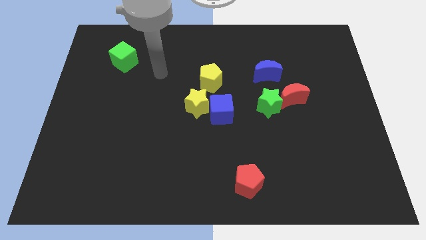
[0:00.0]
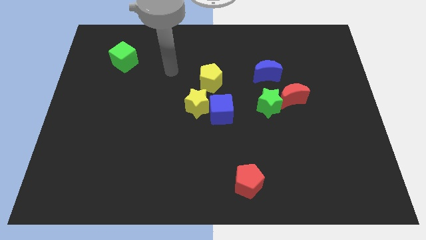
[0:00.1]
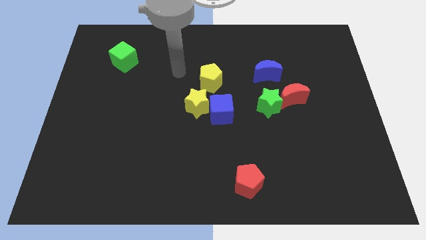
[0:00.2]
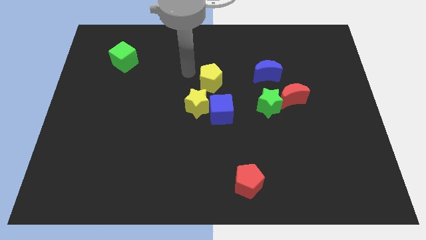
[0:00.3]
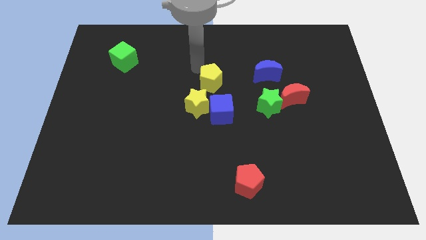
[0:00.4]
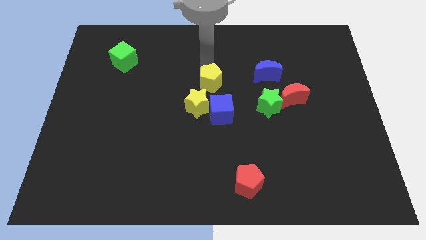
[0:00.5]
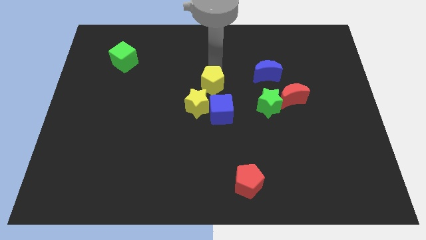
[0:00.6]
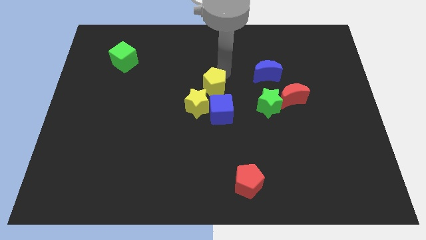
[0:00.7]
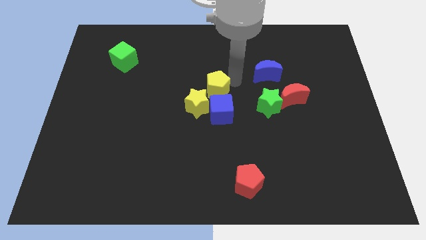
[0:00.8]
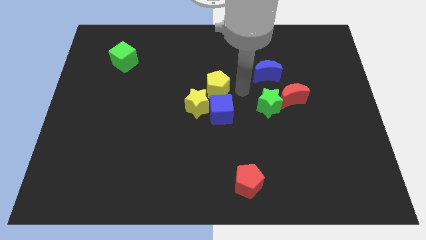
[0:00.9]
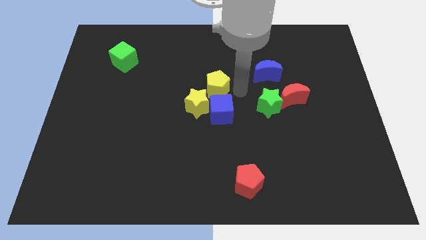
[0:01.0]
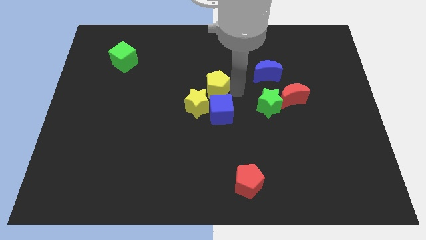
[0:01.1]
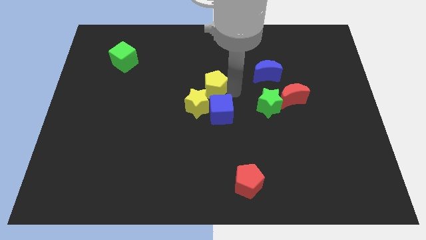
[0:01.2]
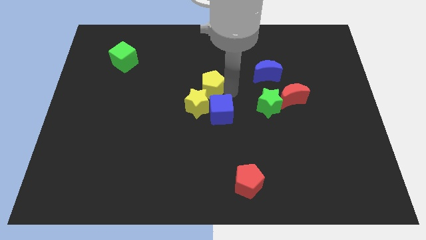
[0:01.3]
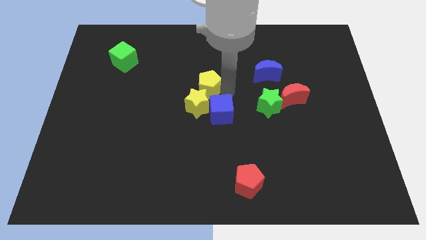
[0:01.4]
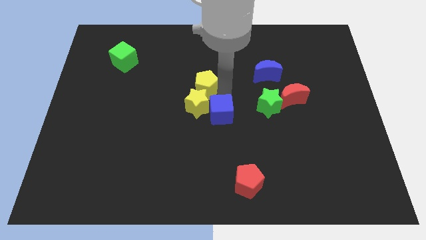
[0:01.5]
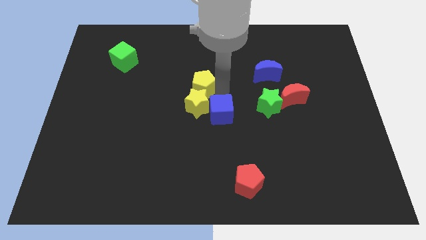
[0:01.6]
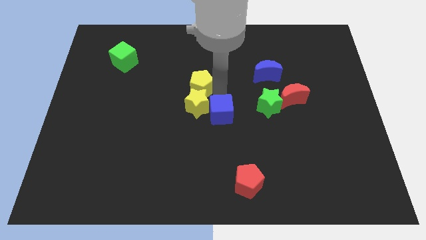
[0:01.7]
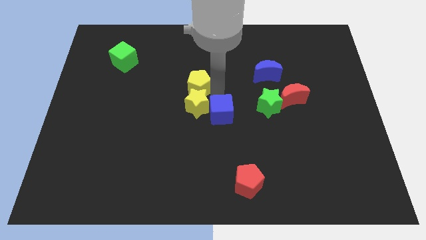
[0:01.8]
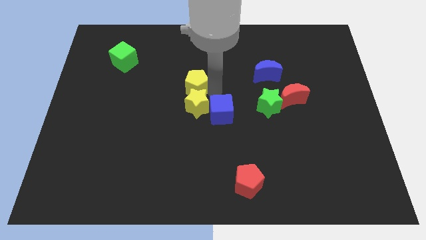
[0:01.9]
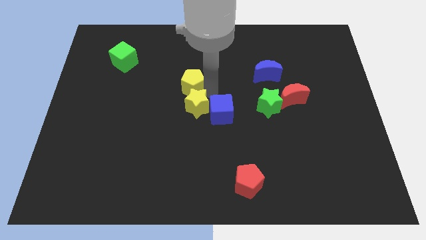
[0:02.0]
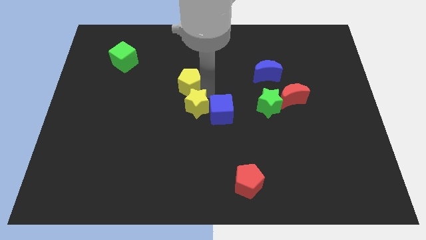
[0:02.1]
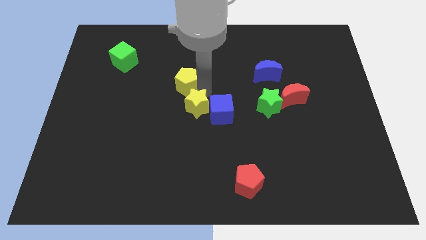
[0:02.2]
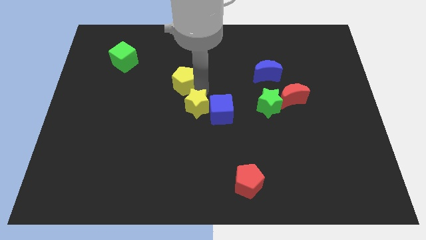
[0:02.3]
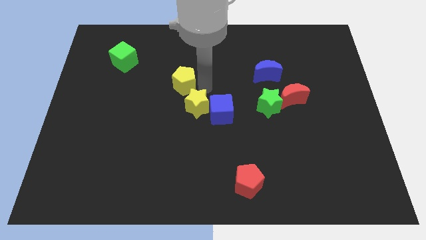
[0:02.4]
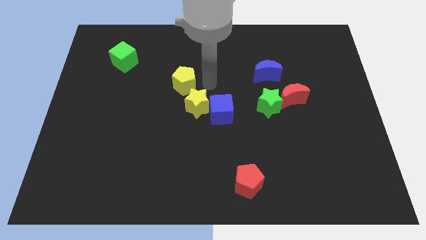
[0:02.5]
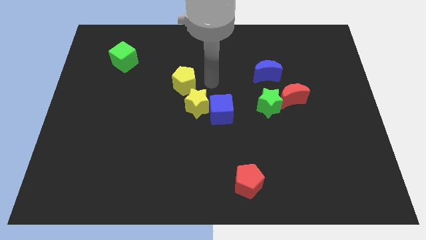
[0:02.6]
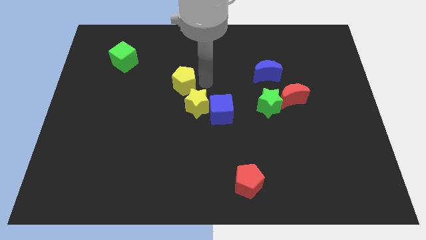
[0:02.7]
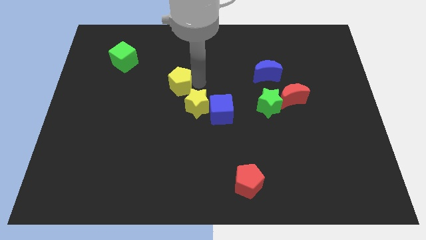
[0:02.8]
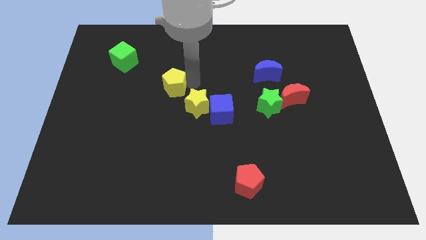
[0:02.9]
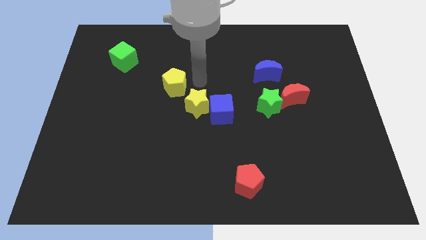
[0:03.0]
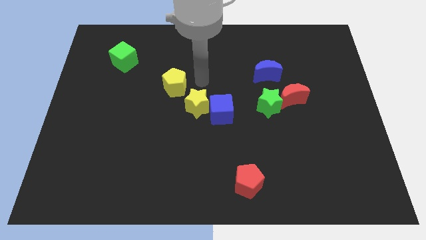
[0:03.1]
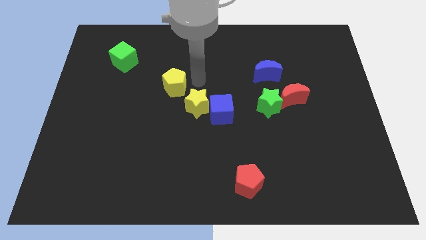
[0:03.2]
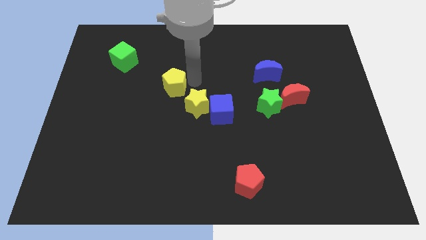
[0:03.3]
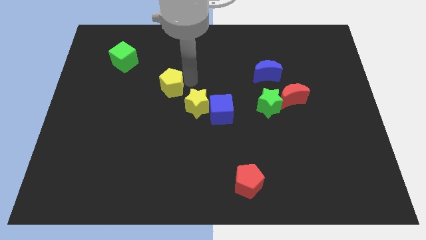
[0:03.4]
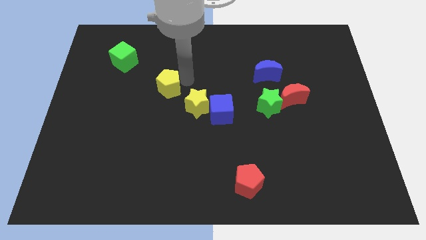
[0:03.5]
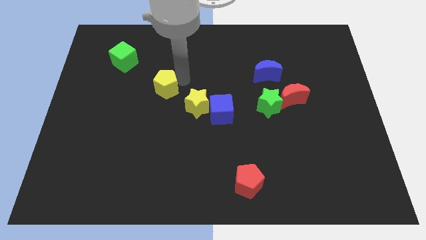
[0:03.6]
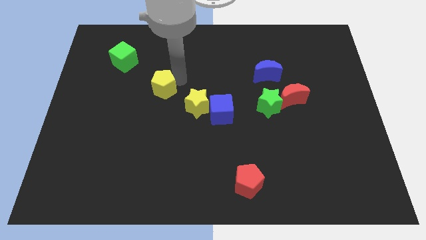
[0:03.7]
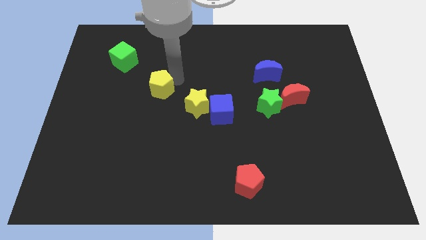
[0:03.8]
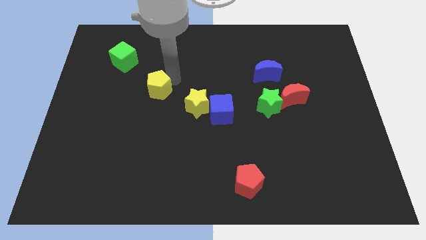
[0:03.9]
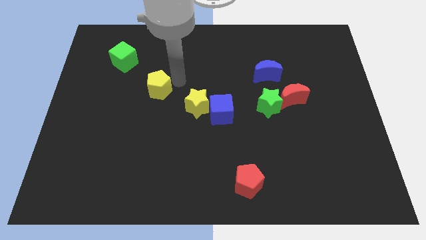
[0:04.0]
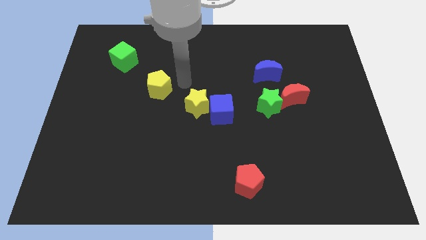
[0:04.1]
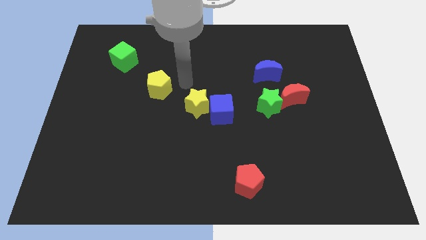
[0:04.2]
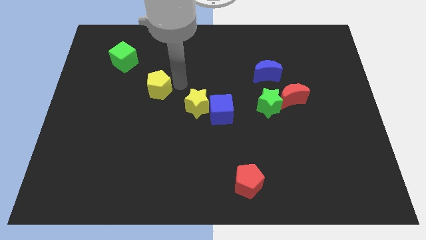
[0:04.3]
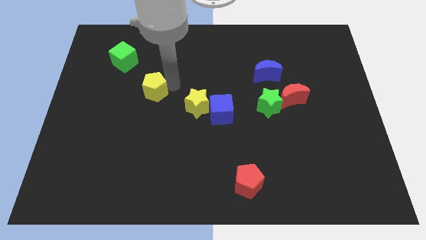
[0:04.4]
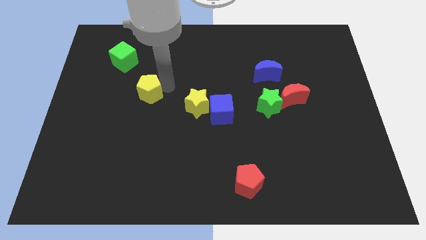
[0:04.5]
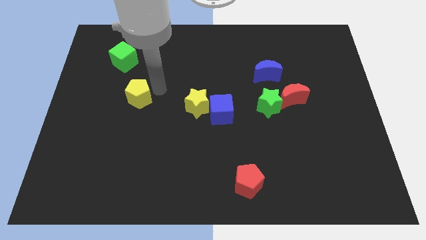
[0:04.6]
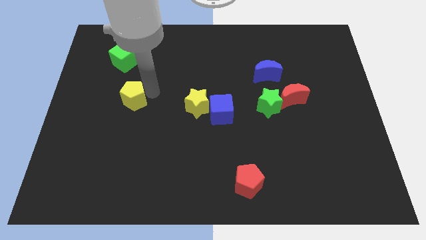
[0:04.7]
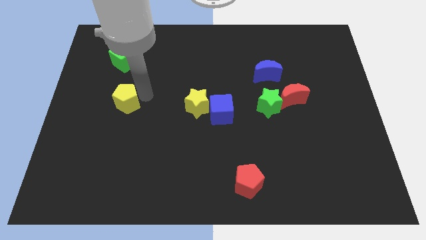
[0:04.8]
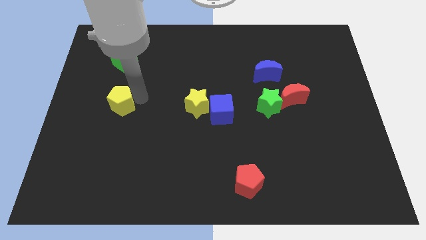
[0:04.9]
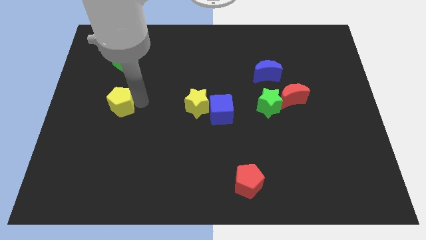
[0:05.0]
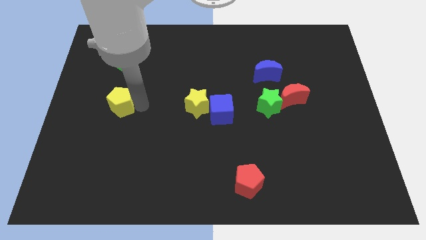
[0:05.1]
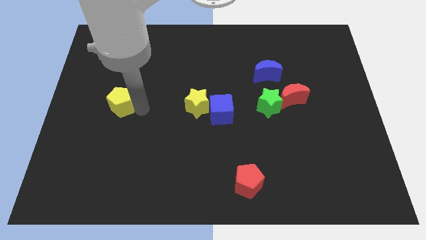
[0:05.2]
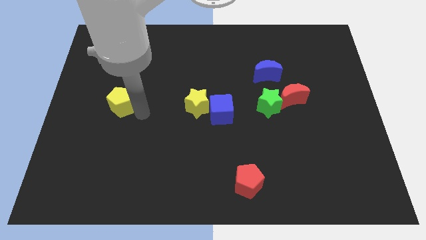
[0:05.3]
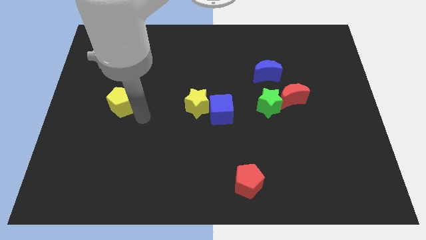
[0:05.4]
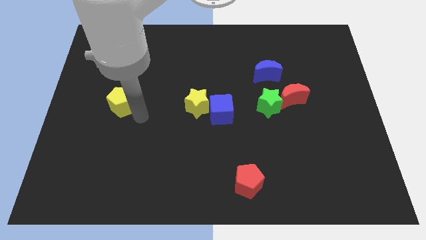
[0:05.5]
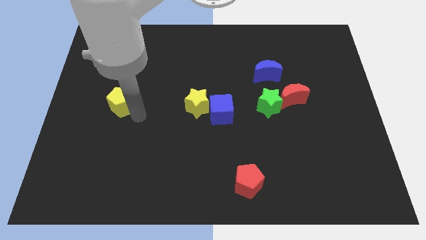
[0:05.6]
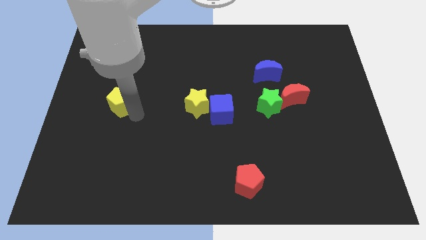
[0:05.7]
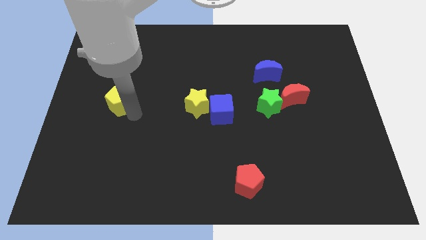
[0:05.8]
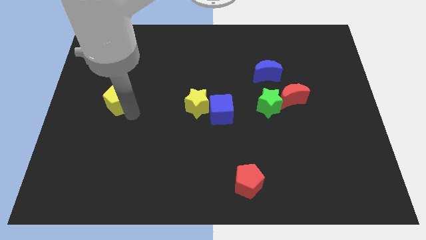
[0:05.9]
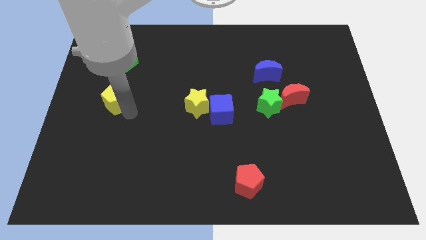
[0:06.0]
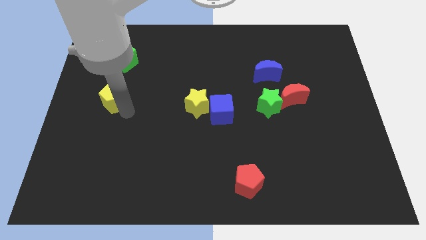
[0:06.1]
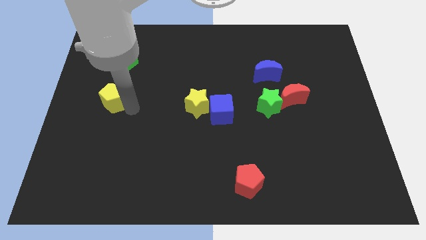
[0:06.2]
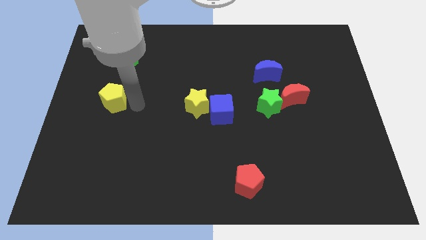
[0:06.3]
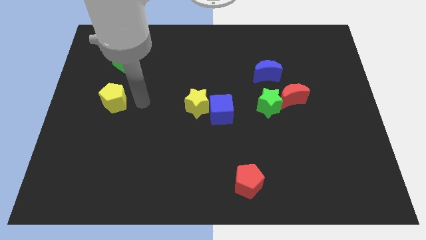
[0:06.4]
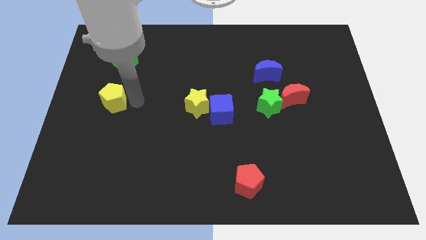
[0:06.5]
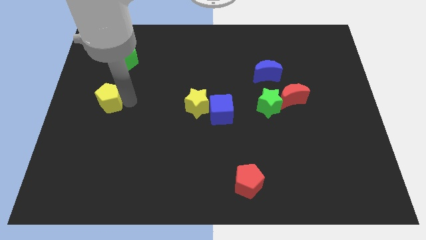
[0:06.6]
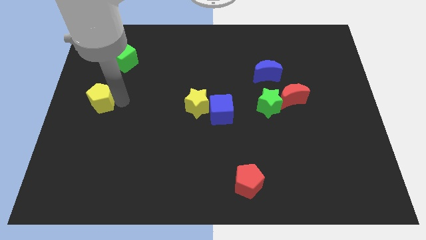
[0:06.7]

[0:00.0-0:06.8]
slide the yellow pentagon to the center left
